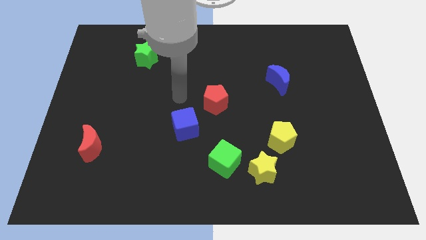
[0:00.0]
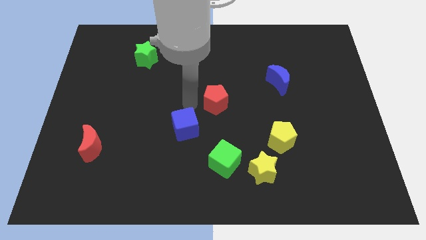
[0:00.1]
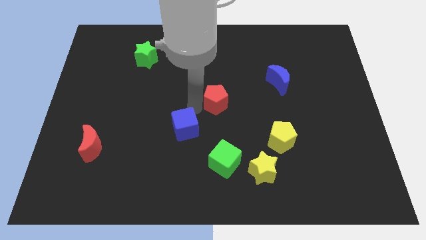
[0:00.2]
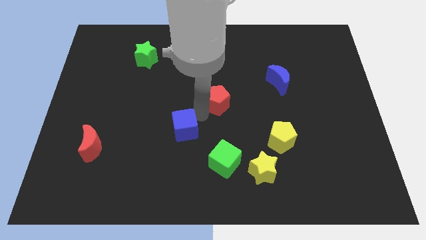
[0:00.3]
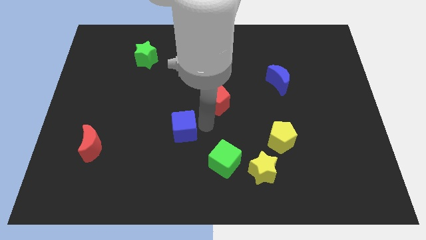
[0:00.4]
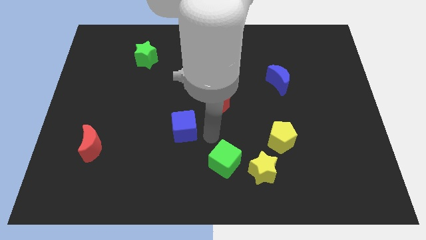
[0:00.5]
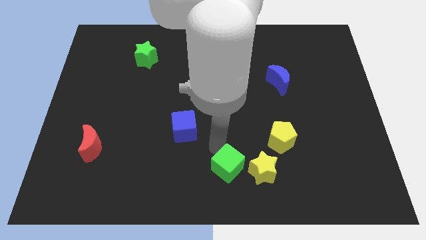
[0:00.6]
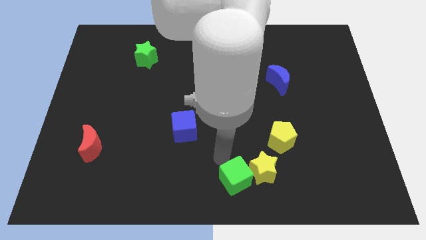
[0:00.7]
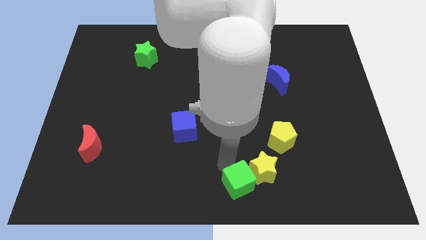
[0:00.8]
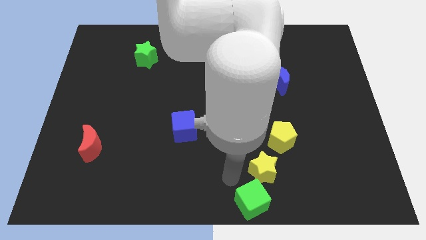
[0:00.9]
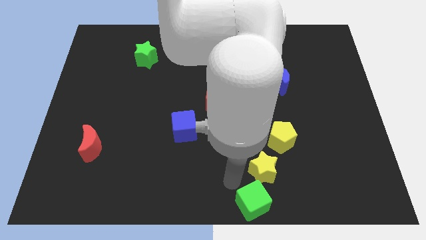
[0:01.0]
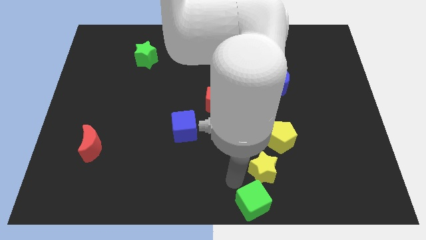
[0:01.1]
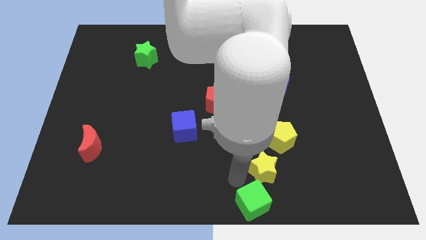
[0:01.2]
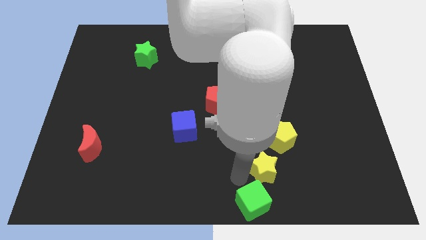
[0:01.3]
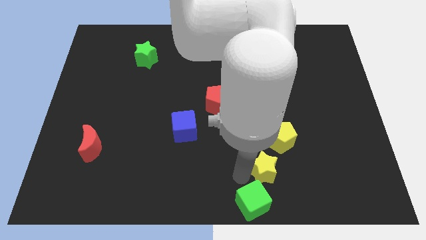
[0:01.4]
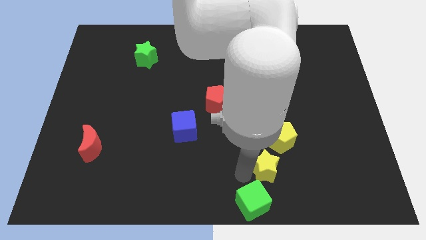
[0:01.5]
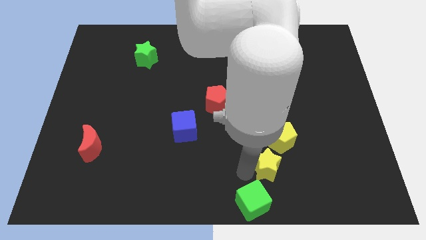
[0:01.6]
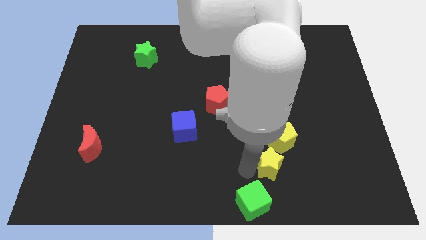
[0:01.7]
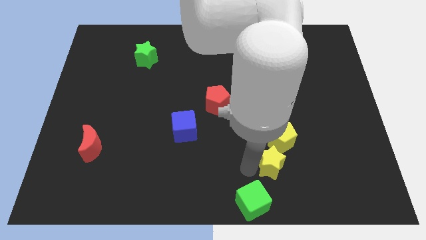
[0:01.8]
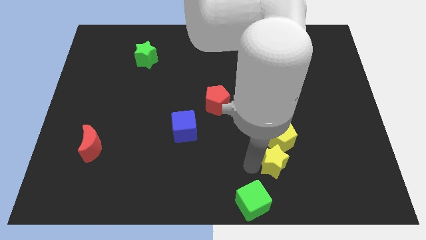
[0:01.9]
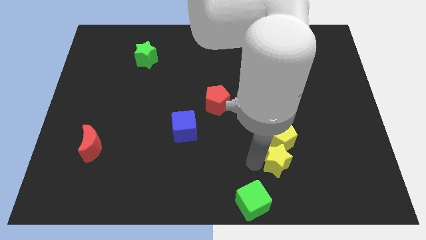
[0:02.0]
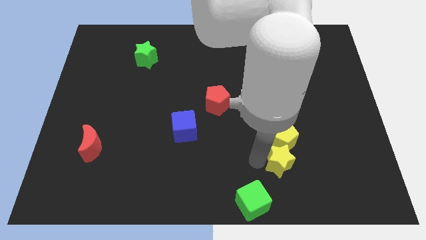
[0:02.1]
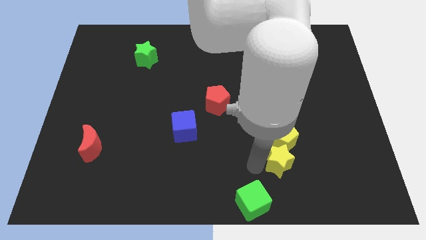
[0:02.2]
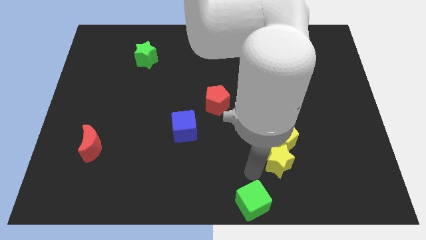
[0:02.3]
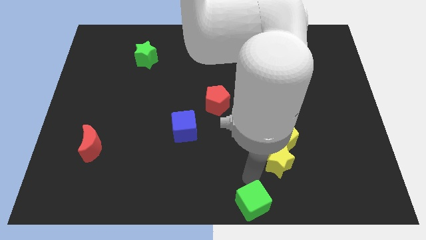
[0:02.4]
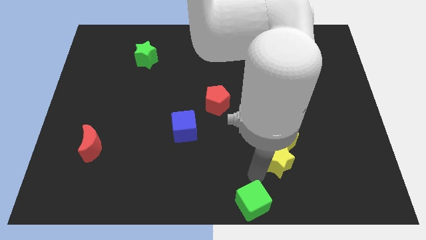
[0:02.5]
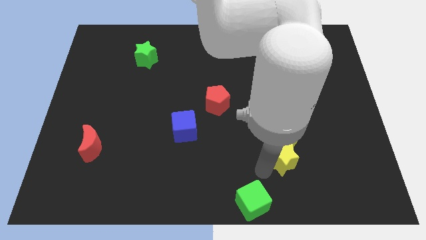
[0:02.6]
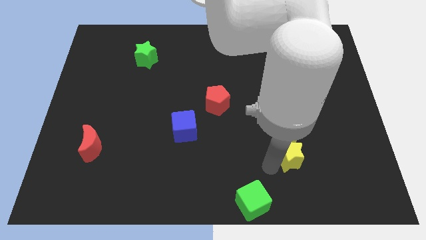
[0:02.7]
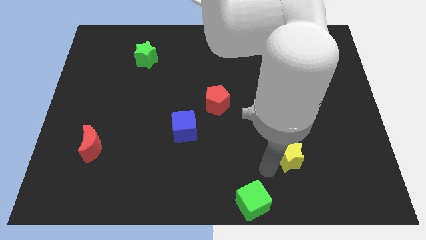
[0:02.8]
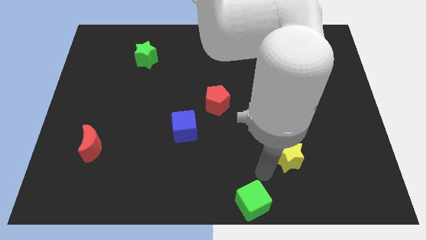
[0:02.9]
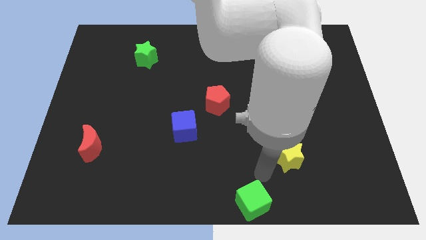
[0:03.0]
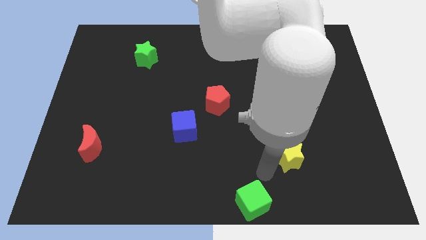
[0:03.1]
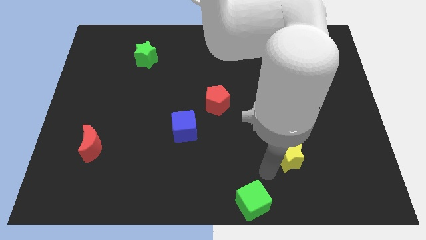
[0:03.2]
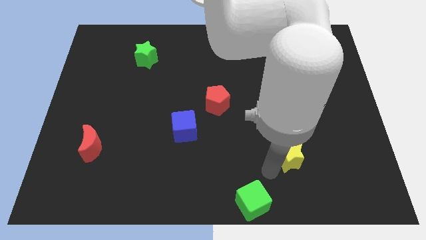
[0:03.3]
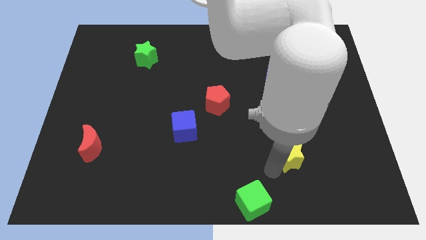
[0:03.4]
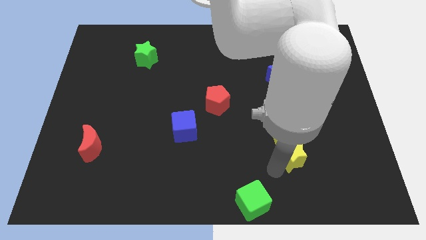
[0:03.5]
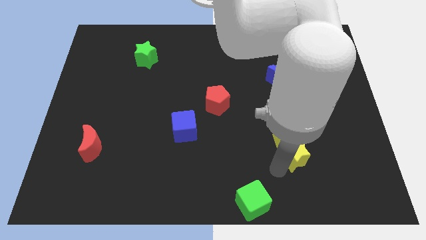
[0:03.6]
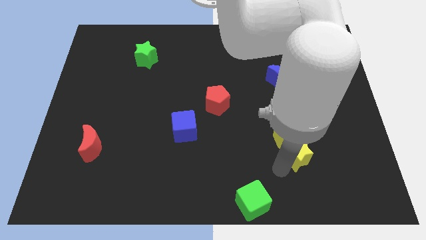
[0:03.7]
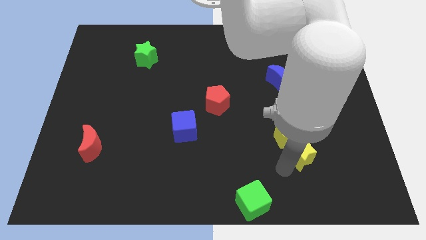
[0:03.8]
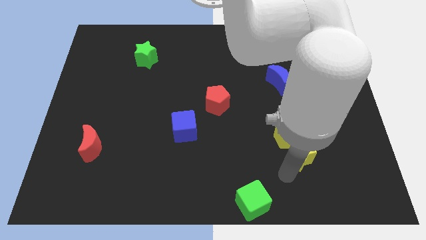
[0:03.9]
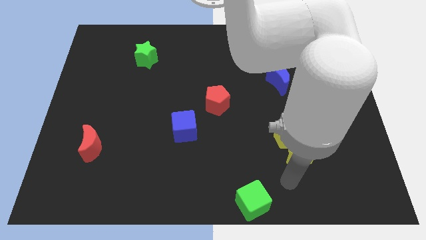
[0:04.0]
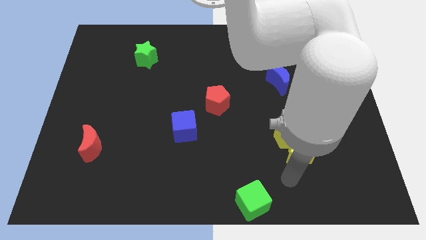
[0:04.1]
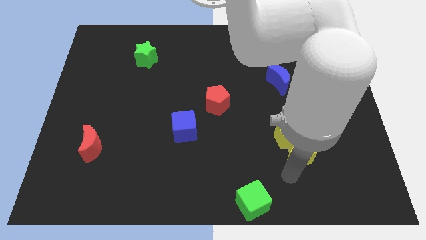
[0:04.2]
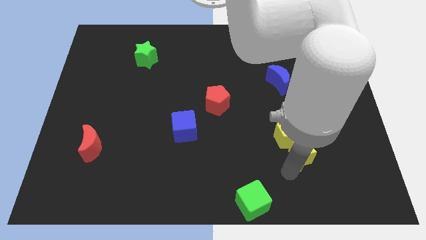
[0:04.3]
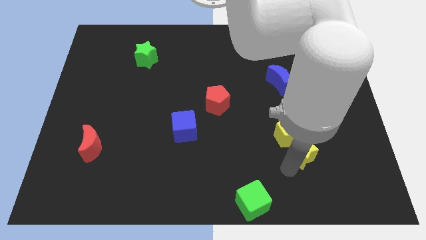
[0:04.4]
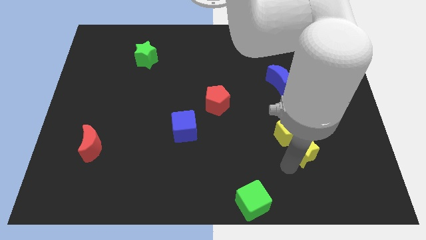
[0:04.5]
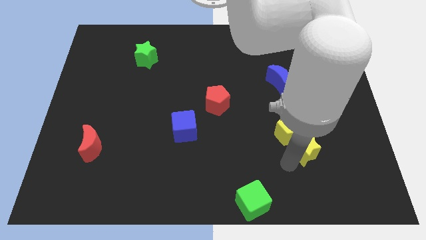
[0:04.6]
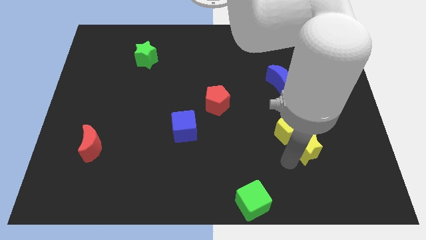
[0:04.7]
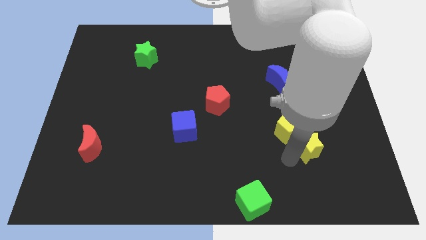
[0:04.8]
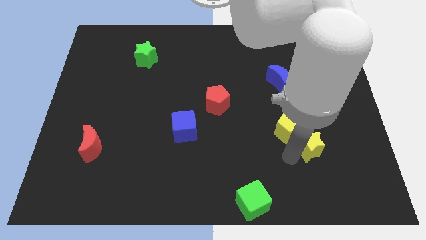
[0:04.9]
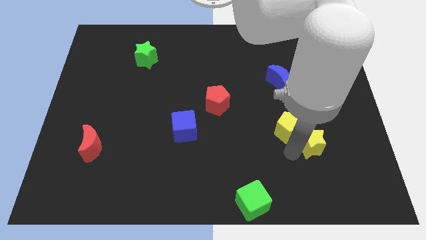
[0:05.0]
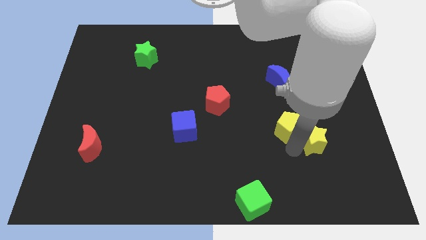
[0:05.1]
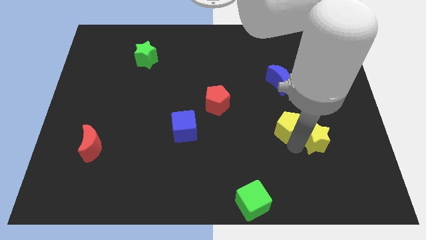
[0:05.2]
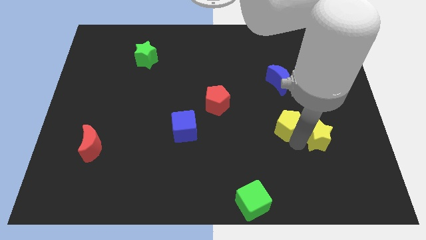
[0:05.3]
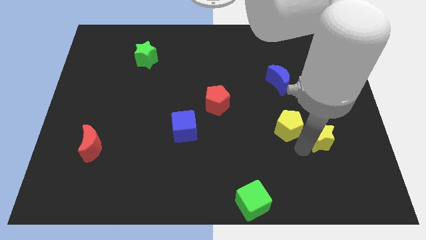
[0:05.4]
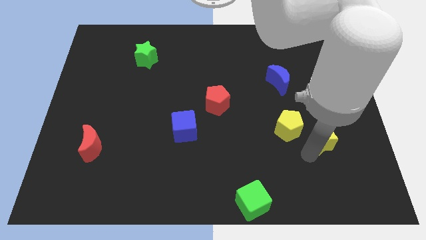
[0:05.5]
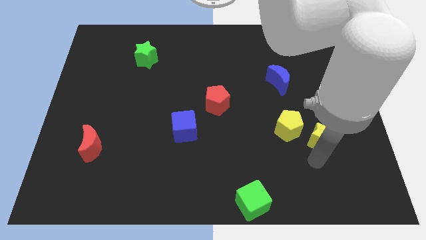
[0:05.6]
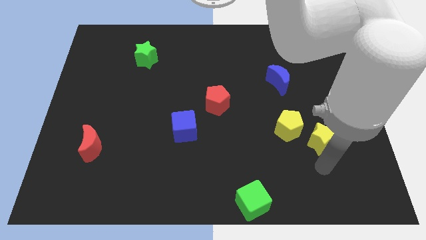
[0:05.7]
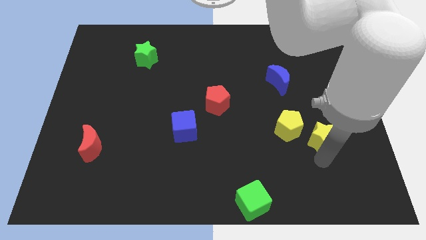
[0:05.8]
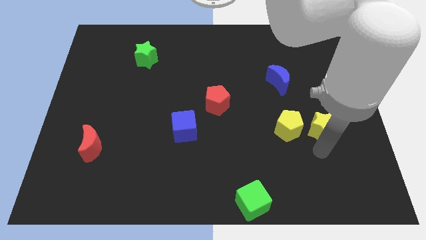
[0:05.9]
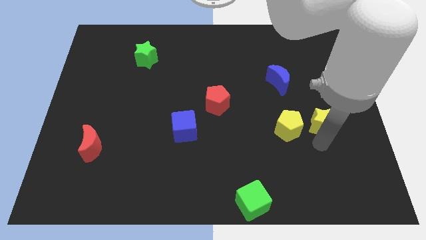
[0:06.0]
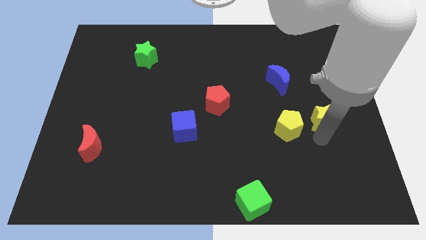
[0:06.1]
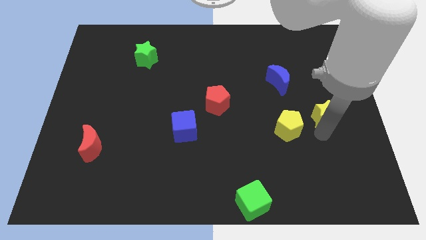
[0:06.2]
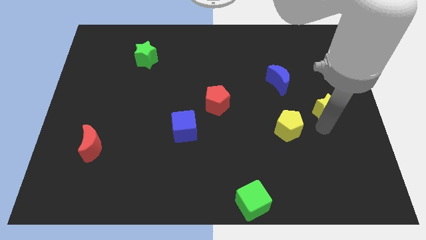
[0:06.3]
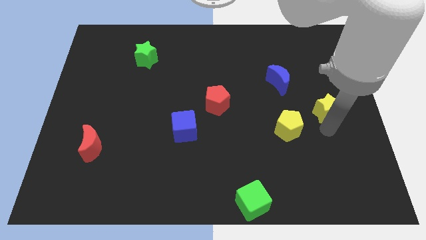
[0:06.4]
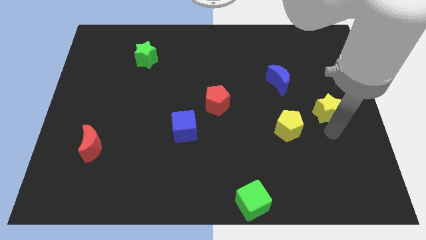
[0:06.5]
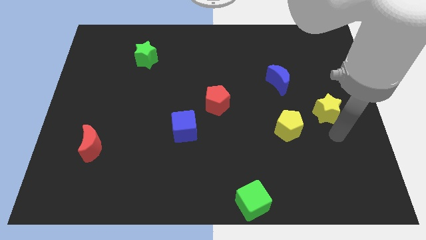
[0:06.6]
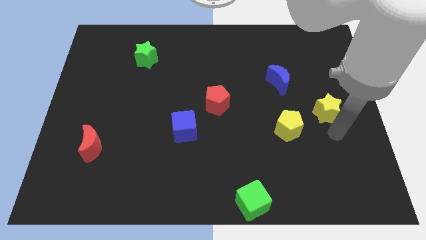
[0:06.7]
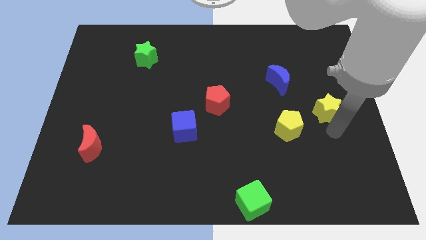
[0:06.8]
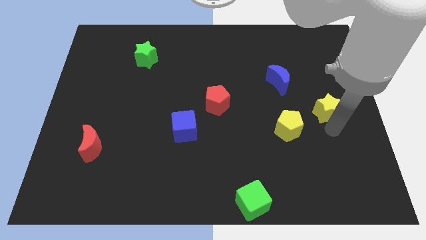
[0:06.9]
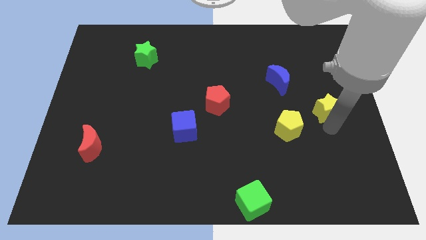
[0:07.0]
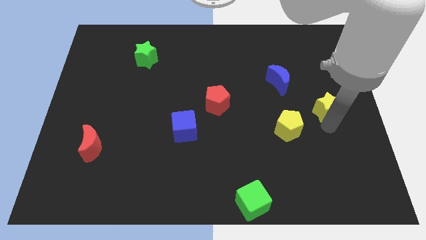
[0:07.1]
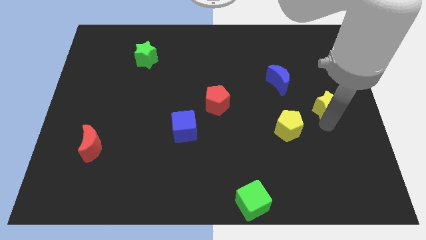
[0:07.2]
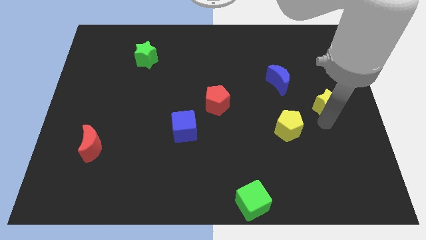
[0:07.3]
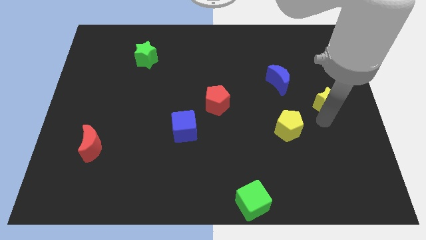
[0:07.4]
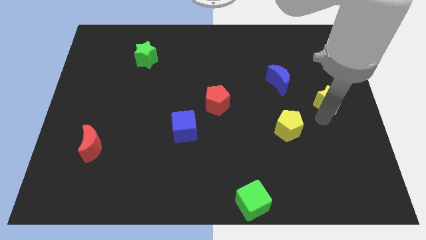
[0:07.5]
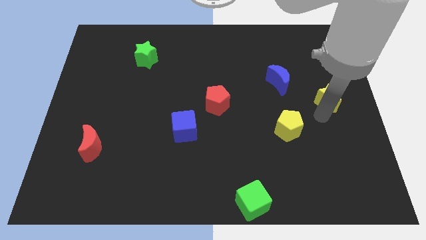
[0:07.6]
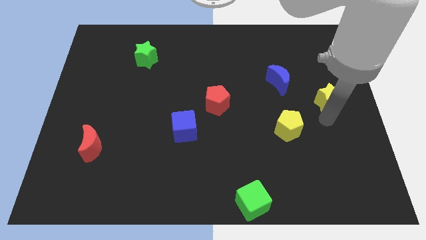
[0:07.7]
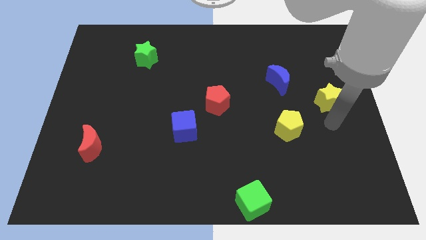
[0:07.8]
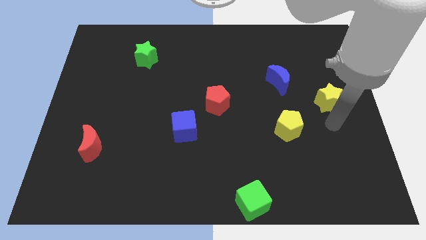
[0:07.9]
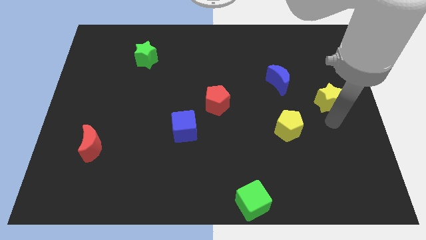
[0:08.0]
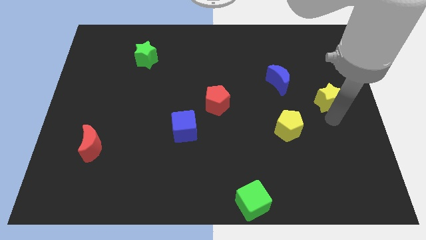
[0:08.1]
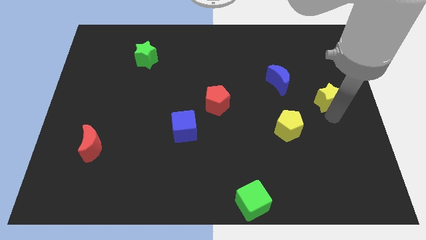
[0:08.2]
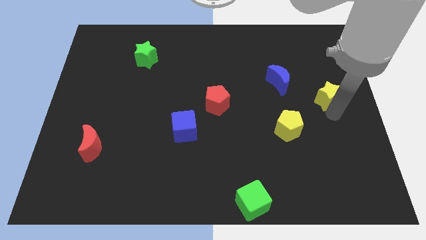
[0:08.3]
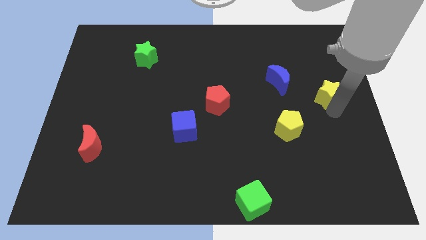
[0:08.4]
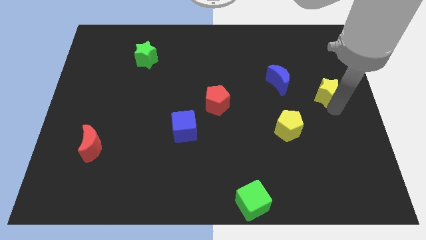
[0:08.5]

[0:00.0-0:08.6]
slide the yellow star right of the blue moon
